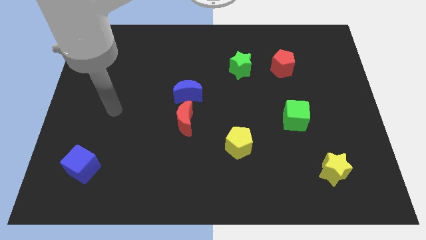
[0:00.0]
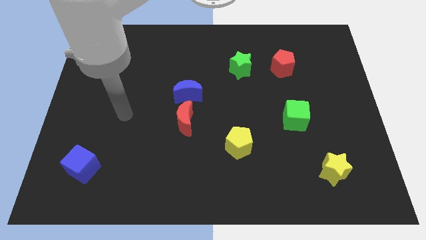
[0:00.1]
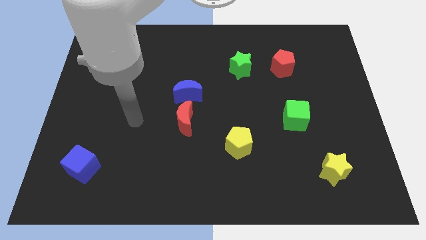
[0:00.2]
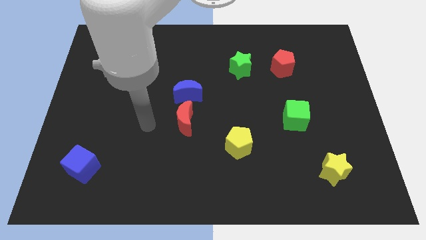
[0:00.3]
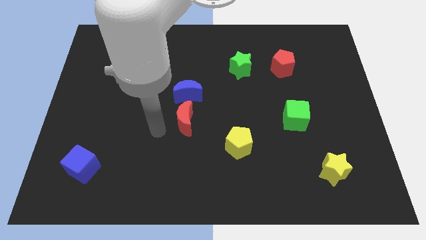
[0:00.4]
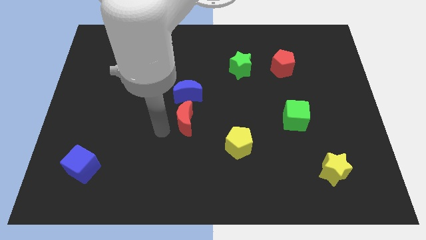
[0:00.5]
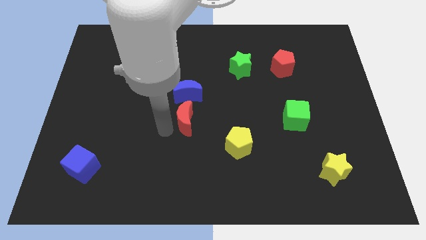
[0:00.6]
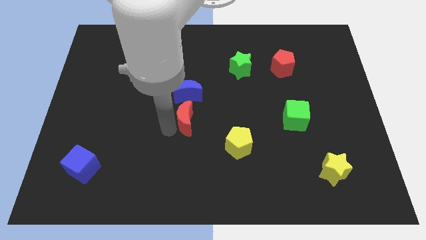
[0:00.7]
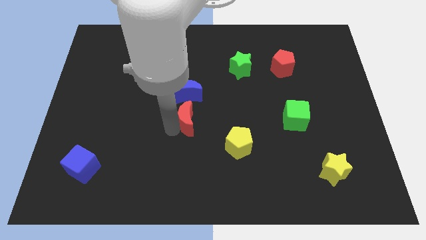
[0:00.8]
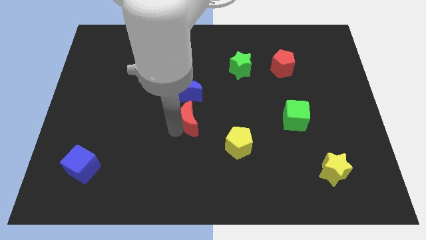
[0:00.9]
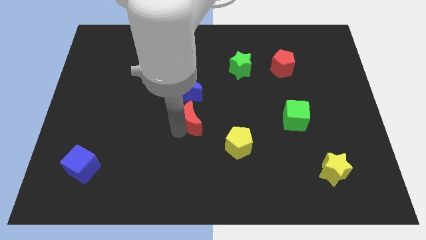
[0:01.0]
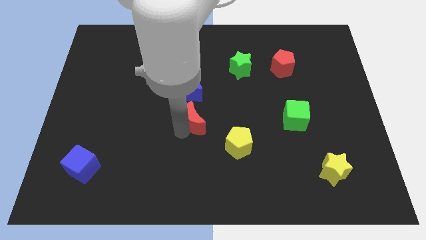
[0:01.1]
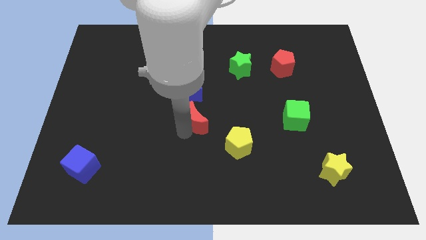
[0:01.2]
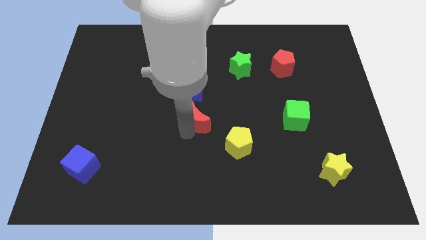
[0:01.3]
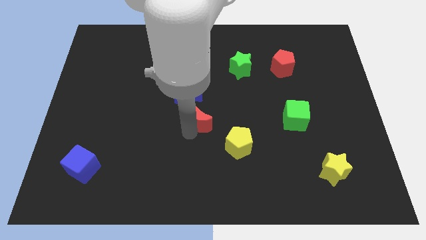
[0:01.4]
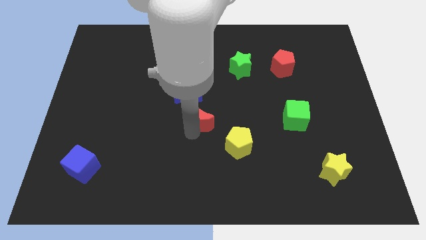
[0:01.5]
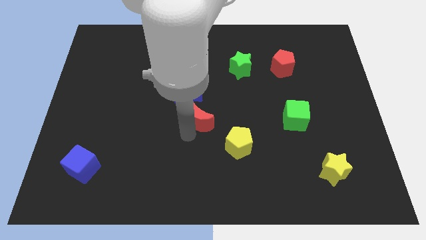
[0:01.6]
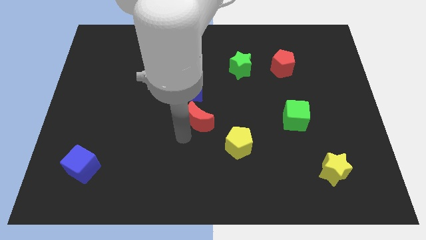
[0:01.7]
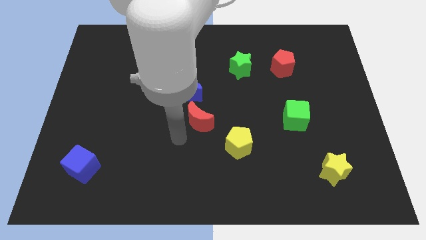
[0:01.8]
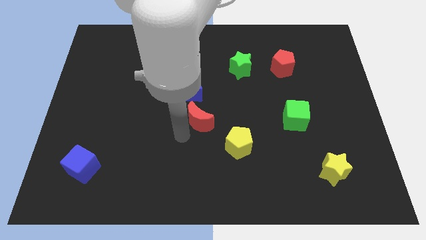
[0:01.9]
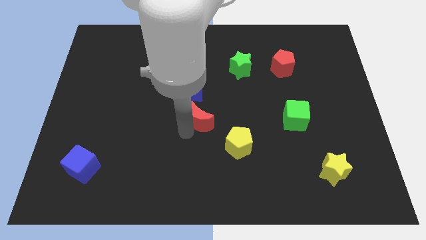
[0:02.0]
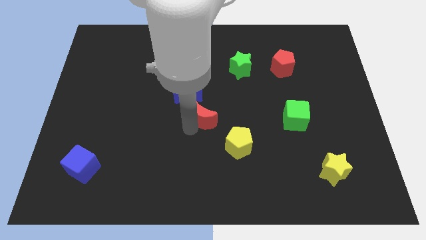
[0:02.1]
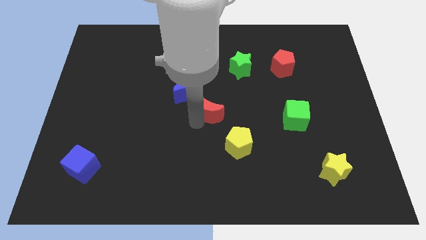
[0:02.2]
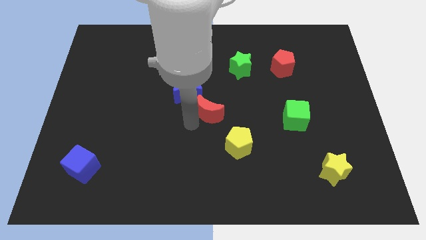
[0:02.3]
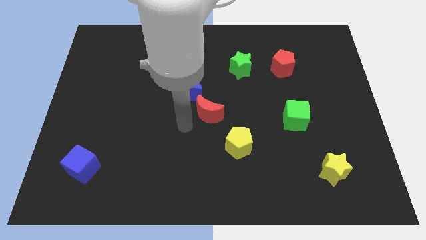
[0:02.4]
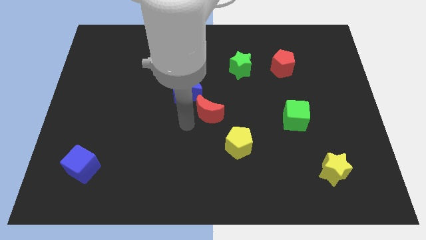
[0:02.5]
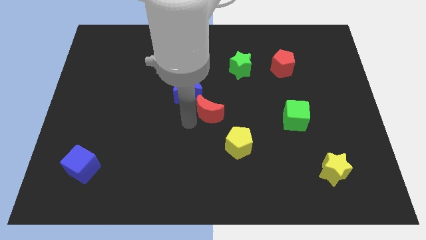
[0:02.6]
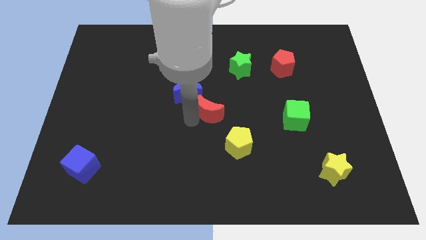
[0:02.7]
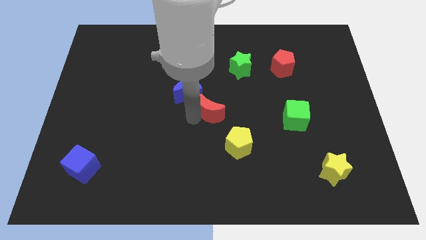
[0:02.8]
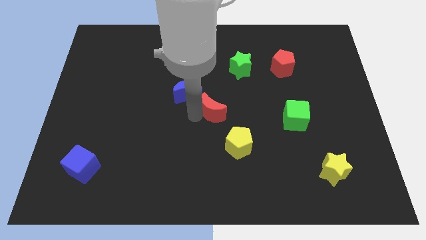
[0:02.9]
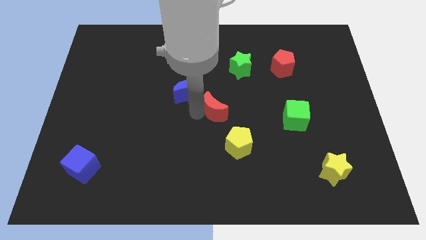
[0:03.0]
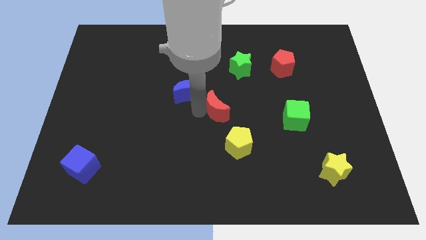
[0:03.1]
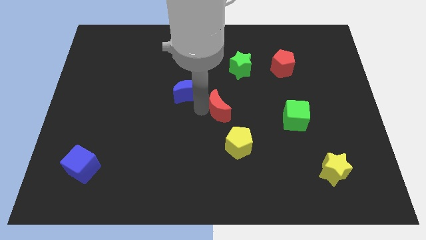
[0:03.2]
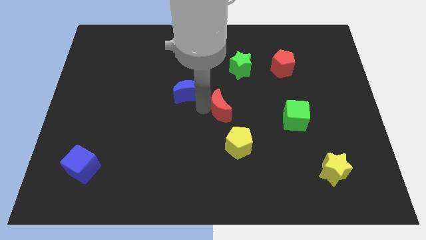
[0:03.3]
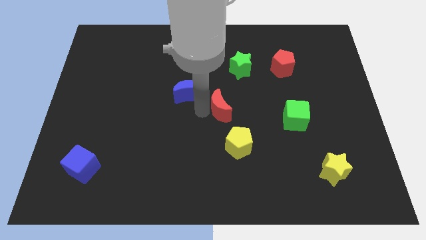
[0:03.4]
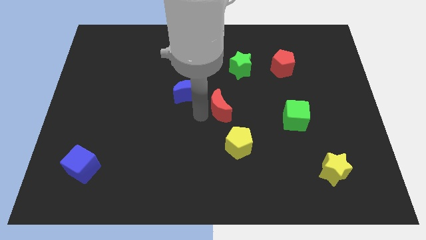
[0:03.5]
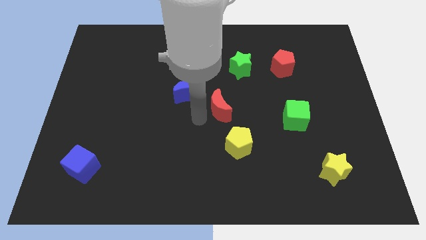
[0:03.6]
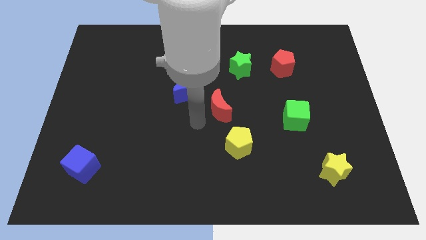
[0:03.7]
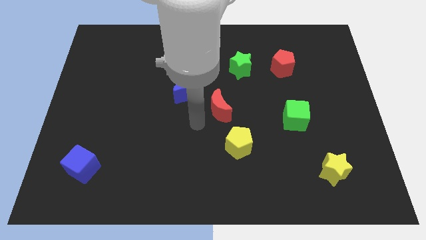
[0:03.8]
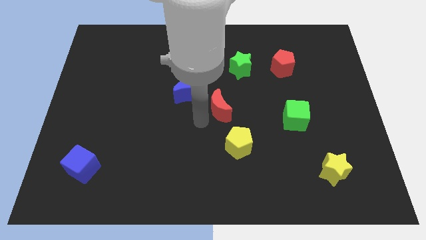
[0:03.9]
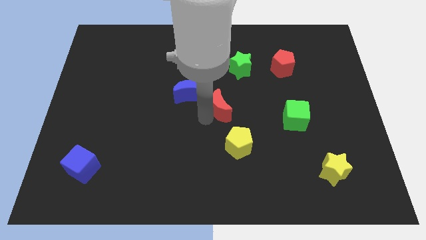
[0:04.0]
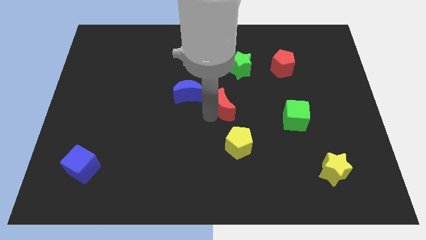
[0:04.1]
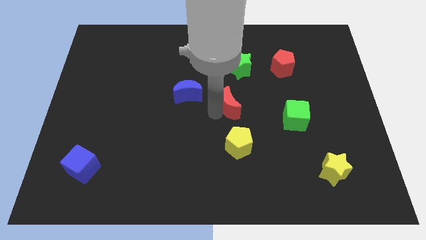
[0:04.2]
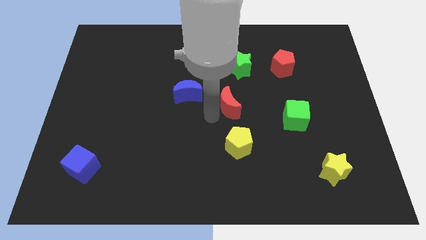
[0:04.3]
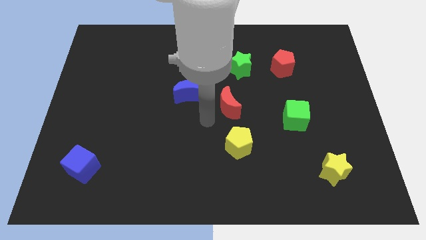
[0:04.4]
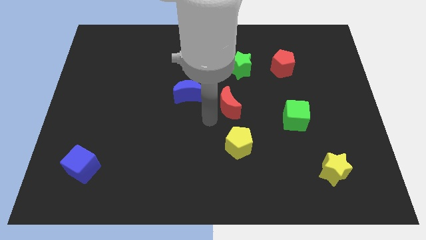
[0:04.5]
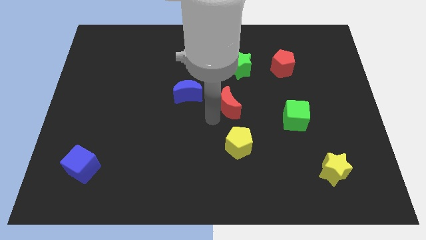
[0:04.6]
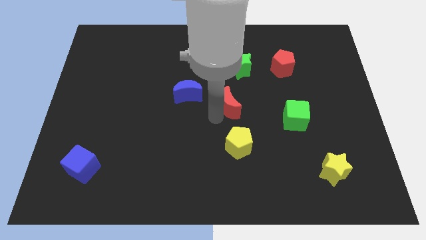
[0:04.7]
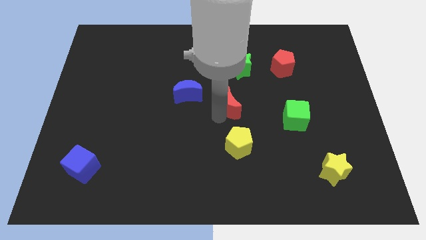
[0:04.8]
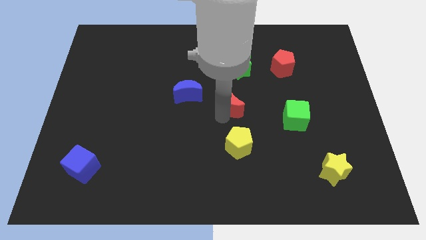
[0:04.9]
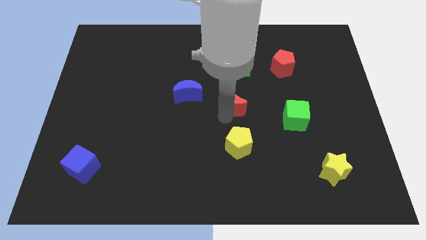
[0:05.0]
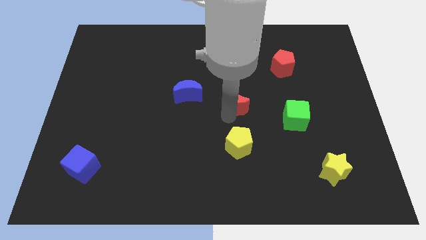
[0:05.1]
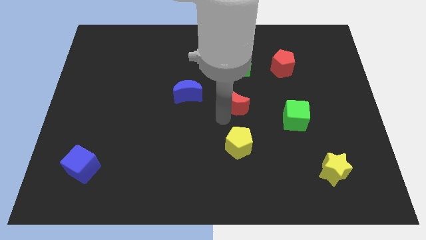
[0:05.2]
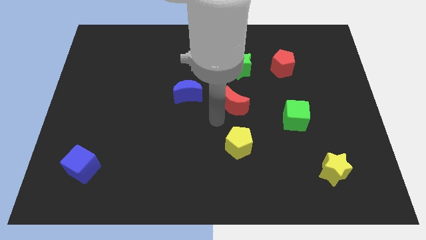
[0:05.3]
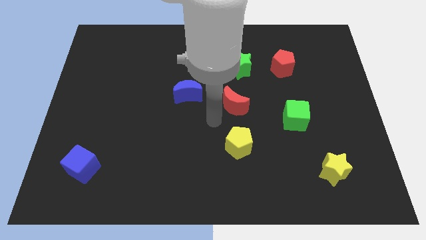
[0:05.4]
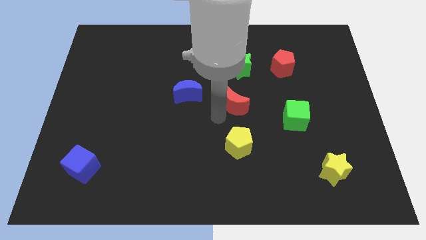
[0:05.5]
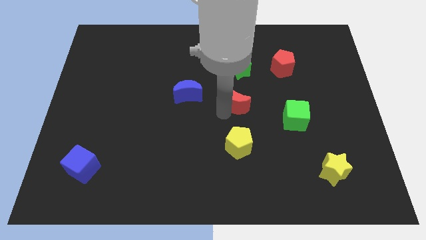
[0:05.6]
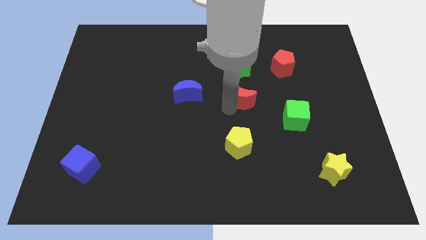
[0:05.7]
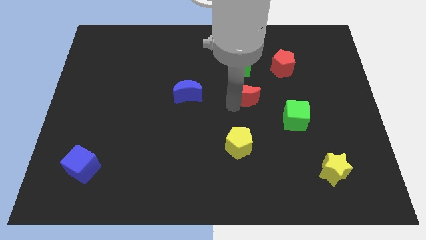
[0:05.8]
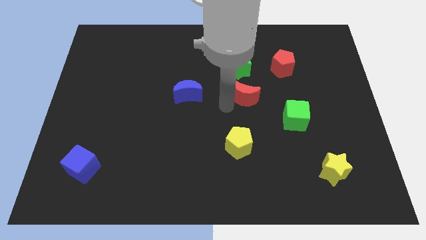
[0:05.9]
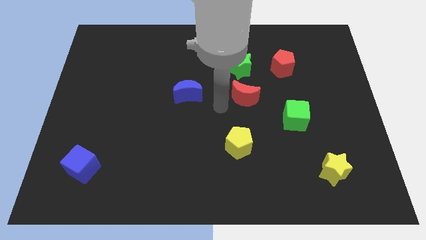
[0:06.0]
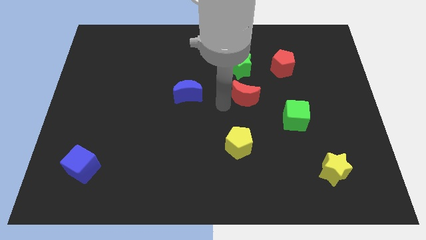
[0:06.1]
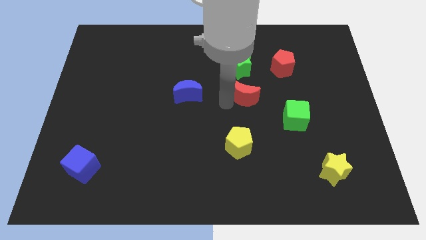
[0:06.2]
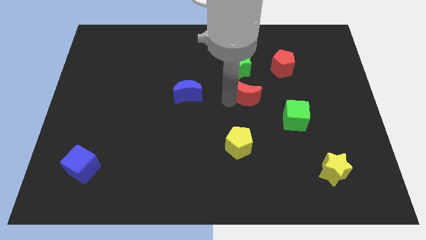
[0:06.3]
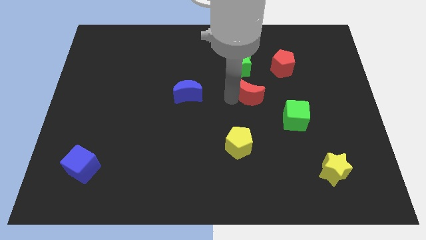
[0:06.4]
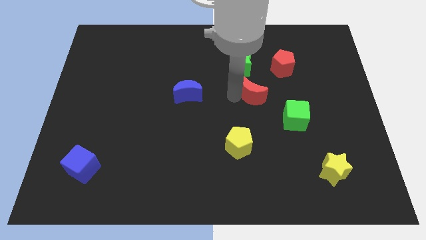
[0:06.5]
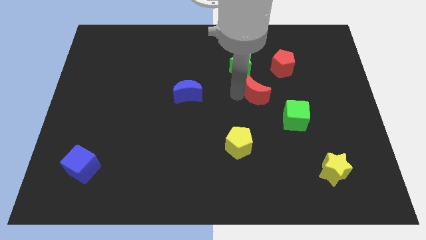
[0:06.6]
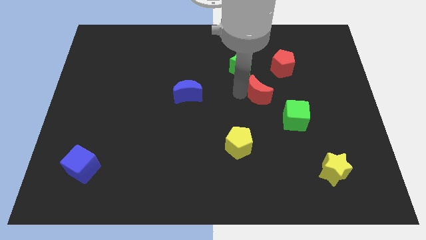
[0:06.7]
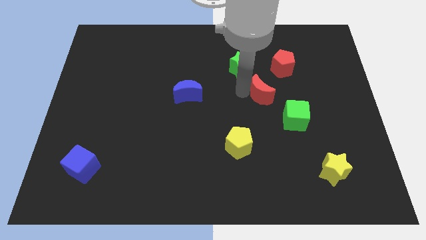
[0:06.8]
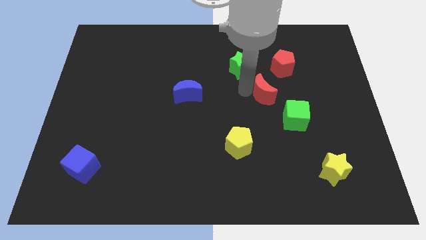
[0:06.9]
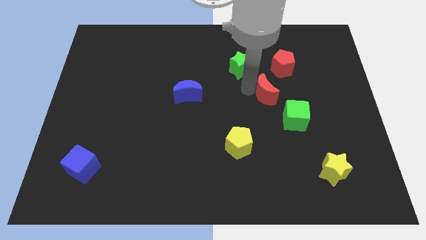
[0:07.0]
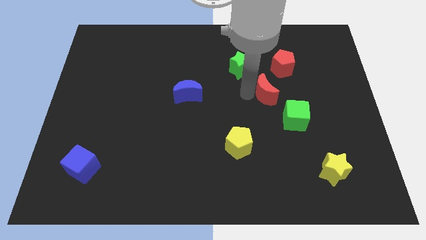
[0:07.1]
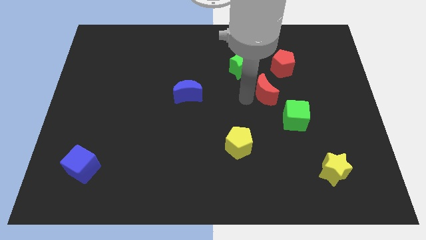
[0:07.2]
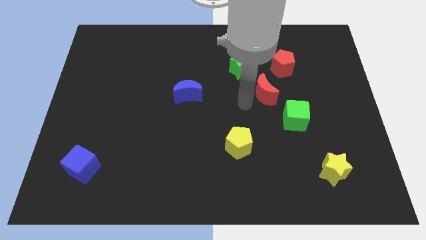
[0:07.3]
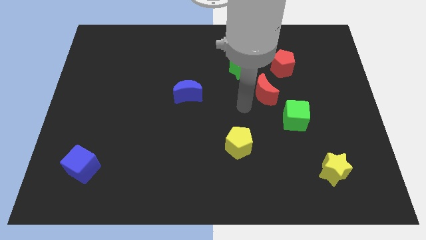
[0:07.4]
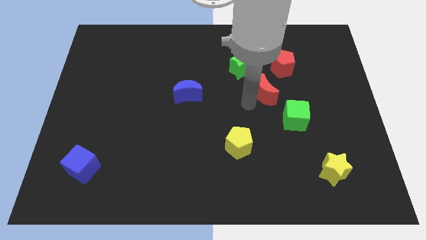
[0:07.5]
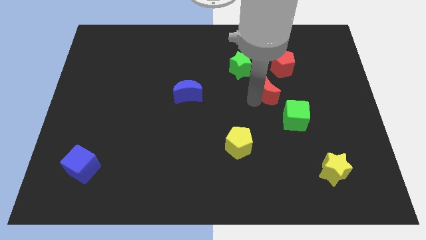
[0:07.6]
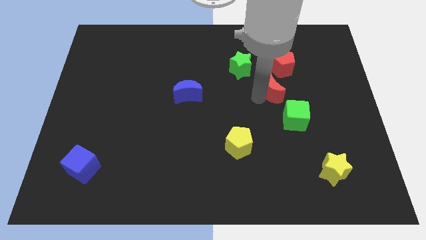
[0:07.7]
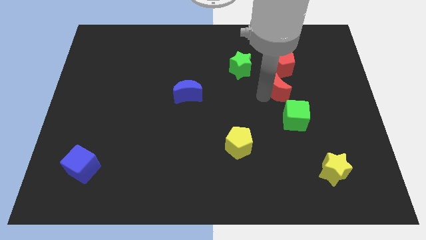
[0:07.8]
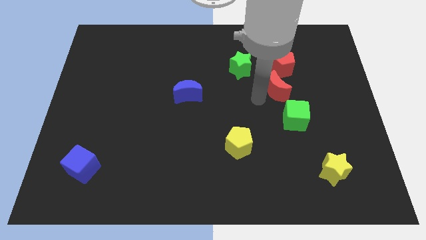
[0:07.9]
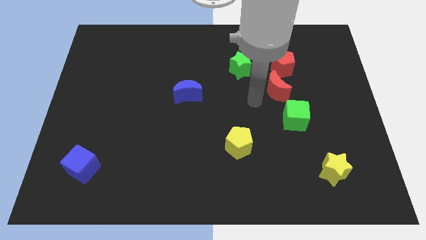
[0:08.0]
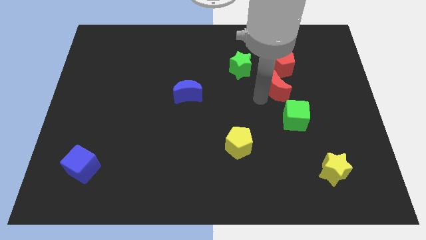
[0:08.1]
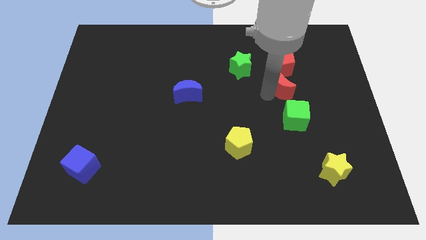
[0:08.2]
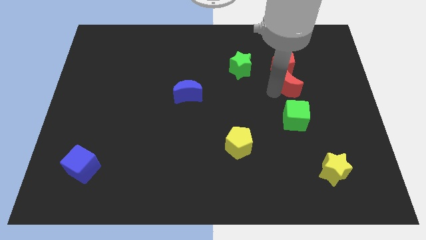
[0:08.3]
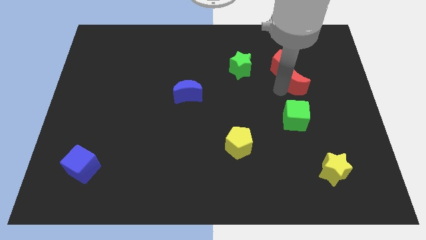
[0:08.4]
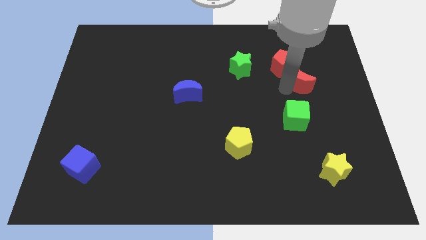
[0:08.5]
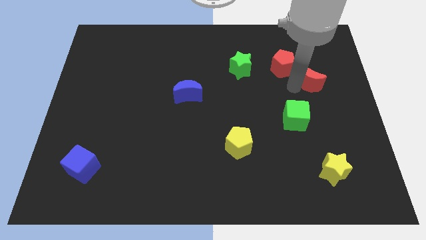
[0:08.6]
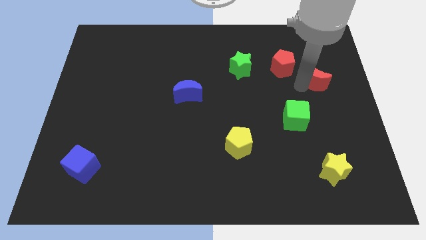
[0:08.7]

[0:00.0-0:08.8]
move the red moon right of the red pentagon
